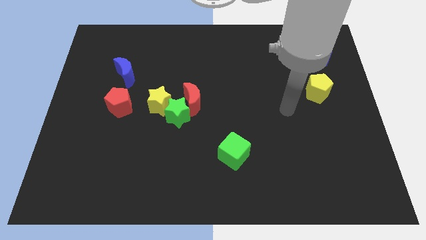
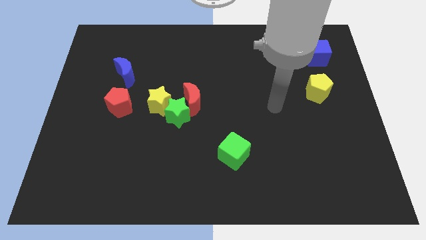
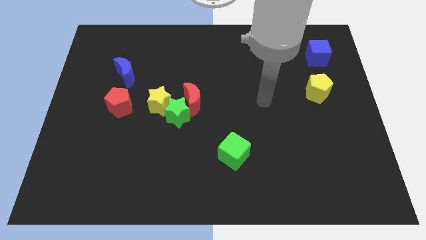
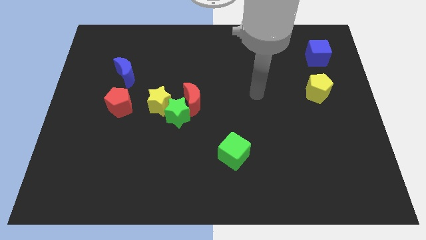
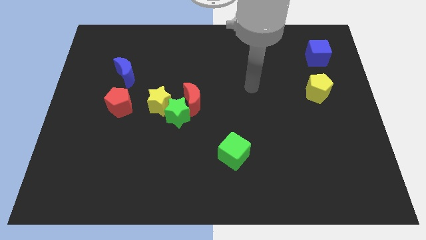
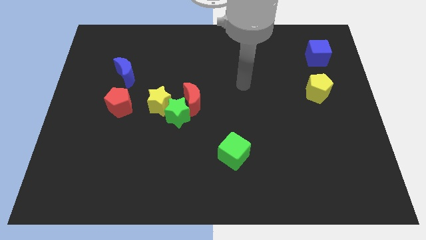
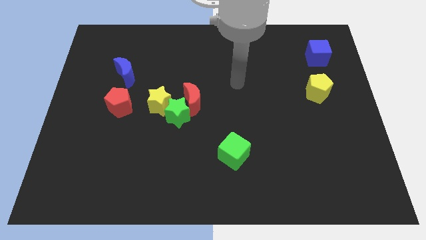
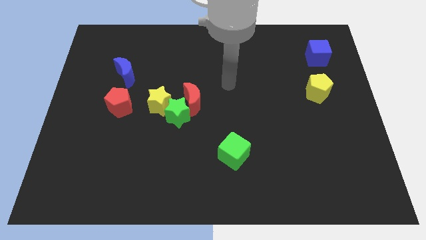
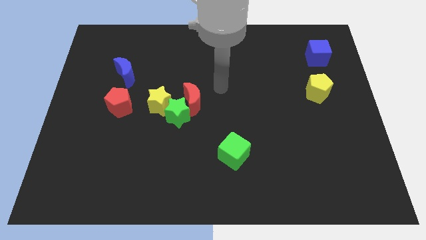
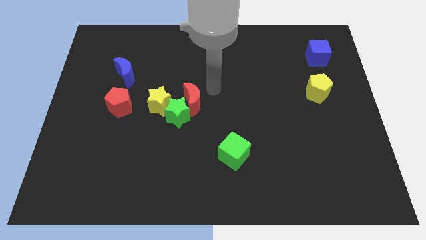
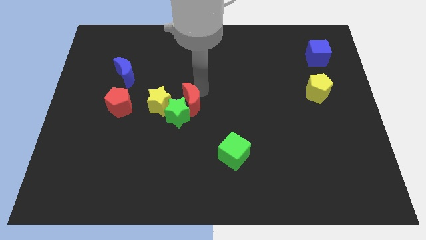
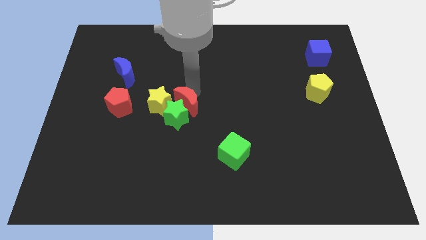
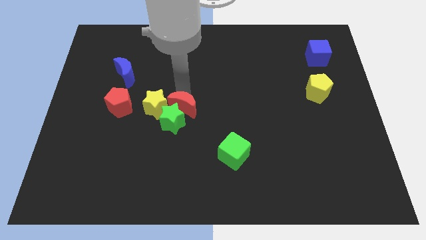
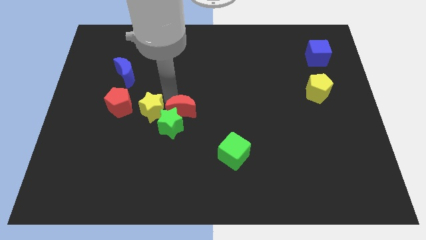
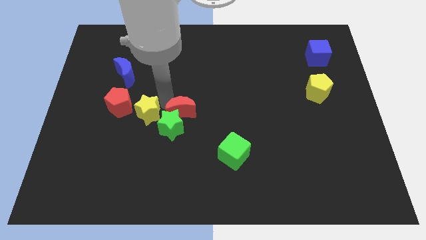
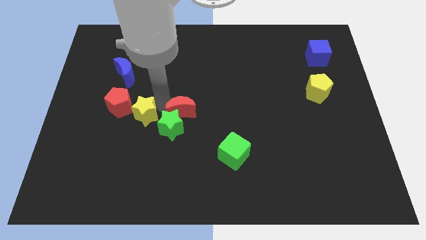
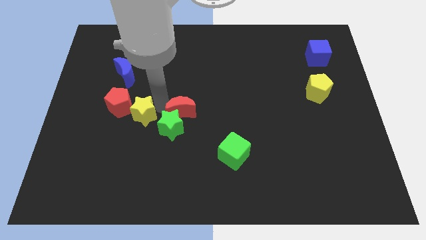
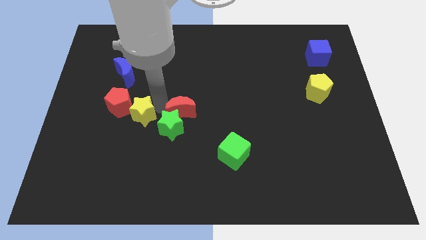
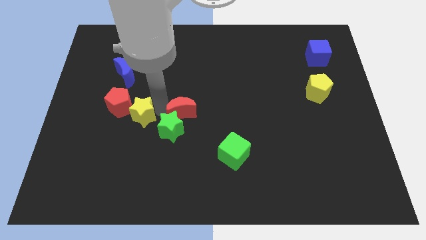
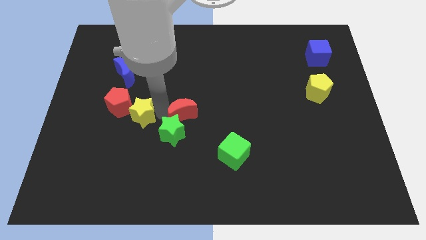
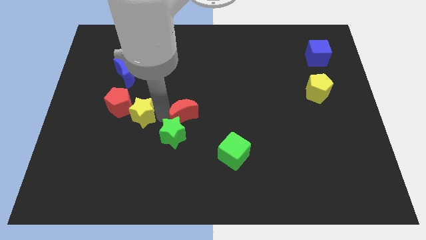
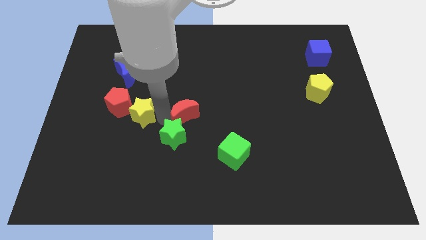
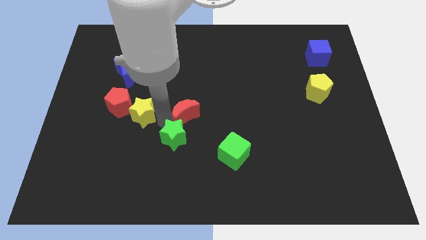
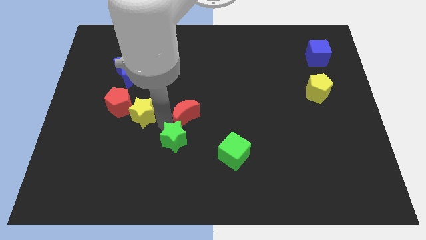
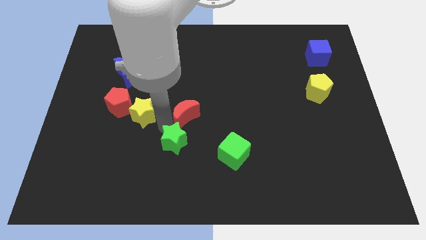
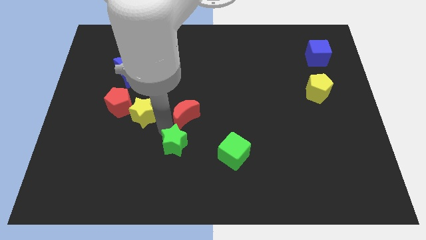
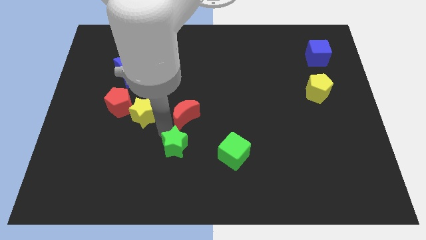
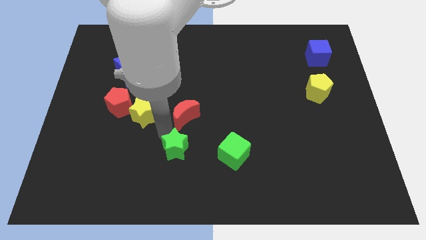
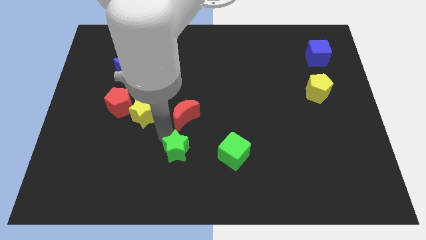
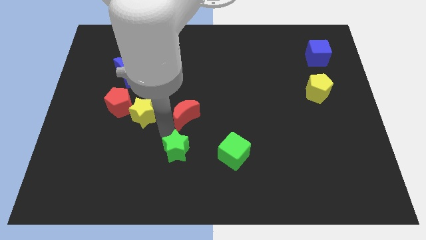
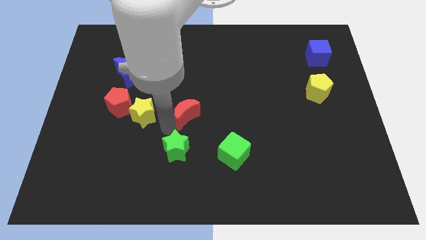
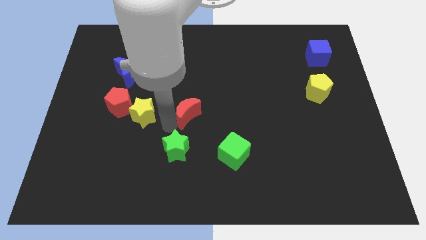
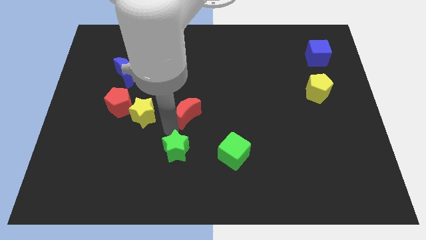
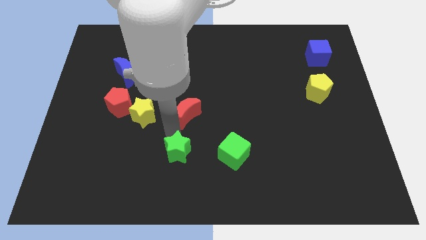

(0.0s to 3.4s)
move the green star away from the red moon and yellow star

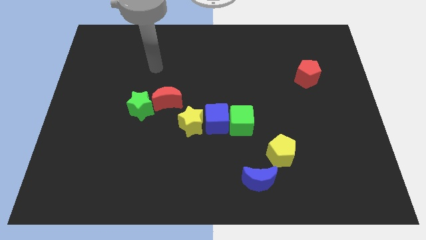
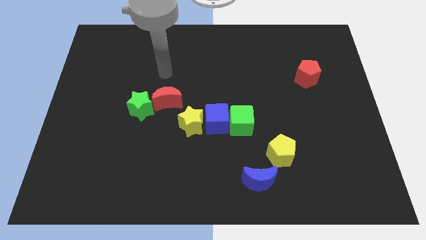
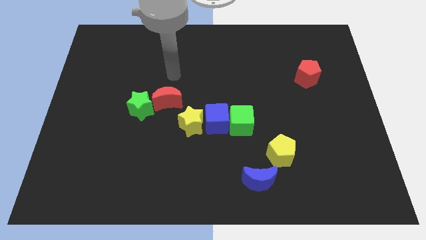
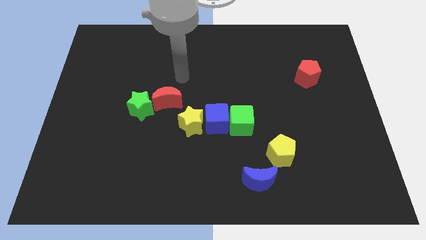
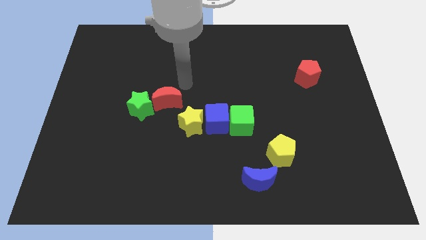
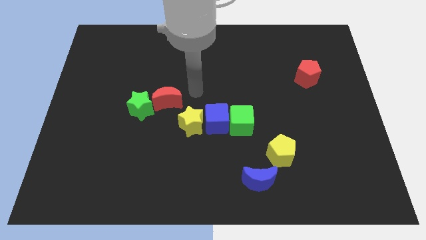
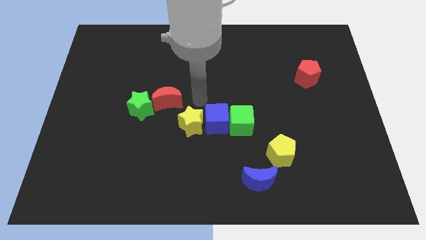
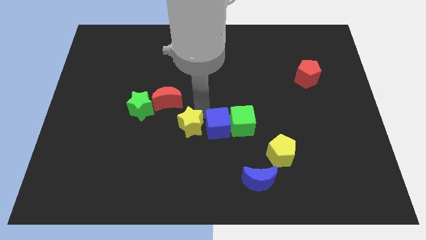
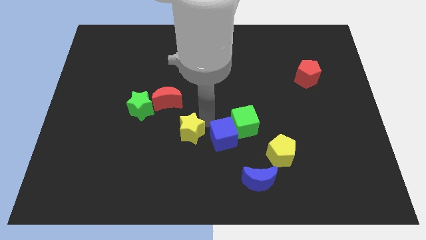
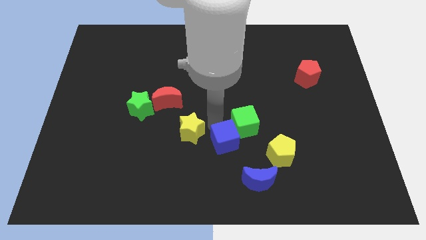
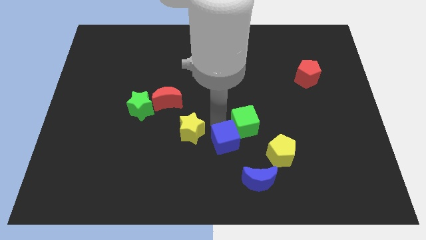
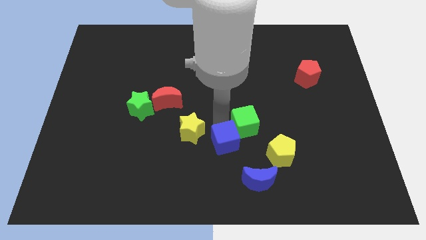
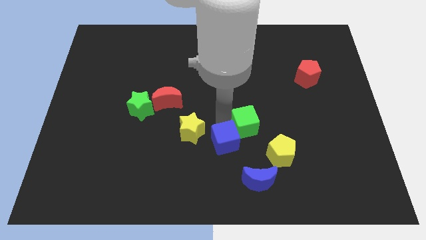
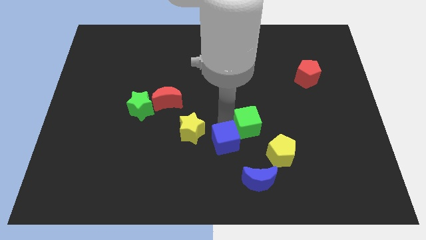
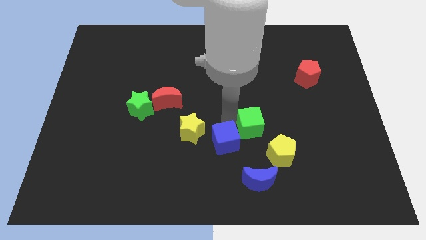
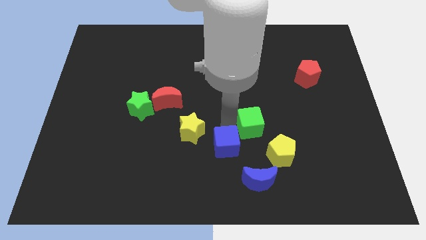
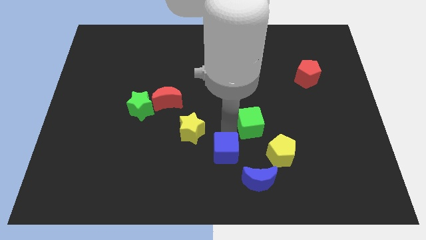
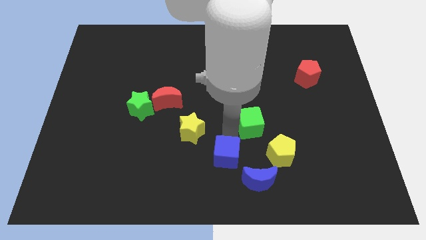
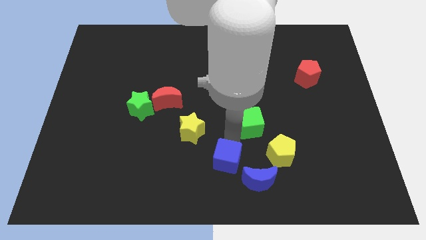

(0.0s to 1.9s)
separate the green cube from the blue cube

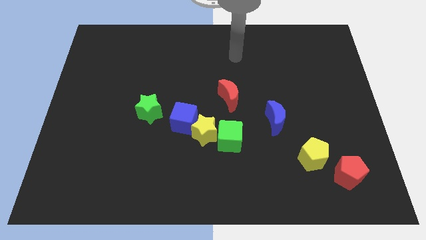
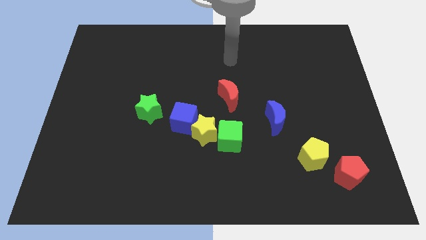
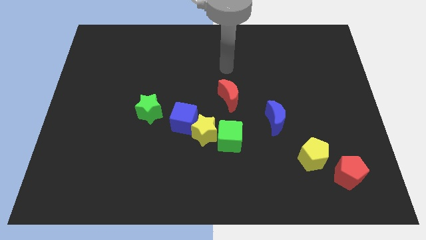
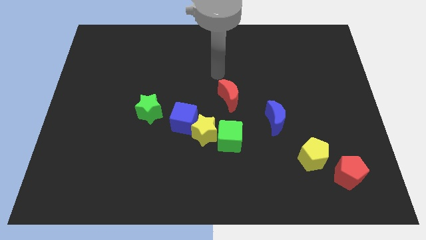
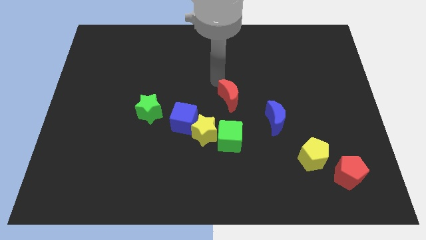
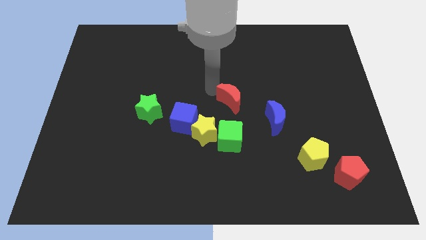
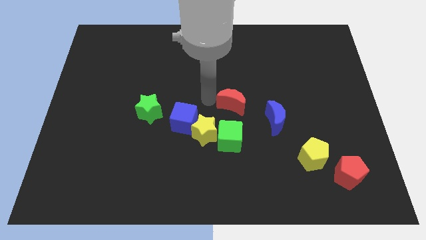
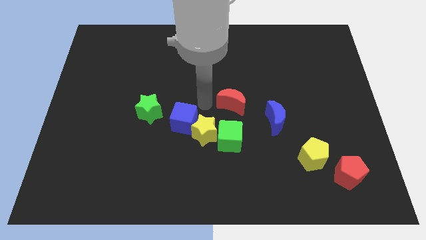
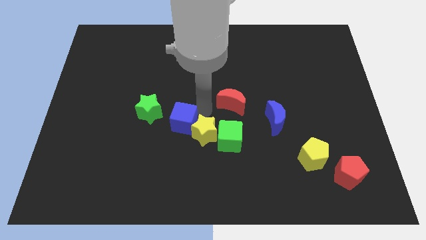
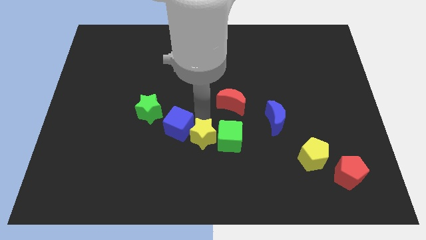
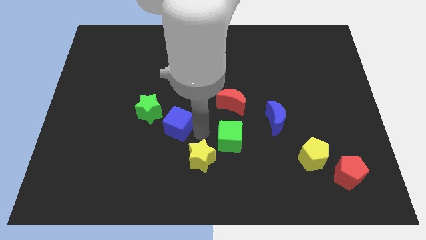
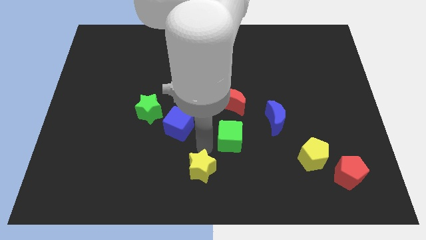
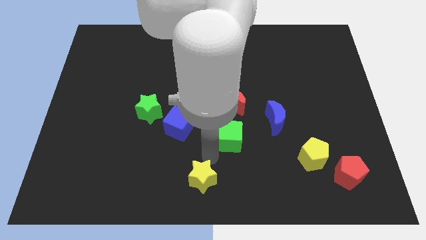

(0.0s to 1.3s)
separate the green cube from the yellow star

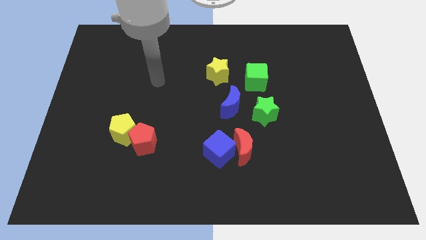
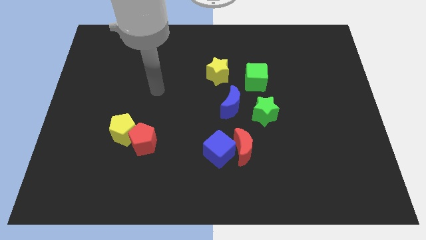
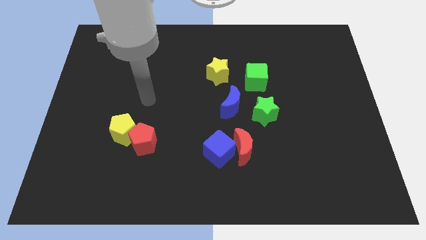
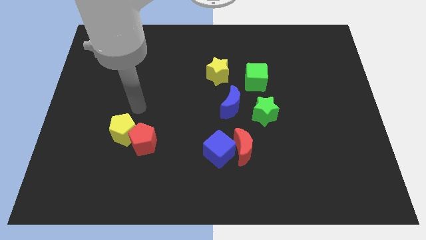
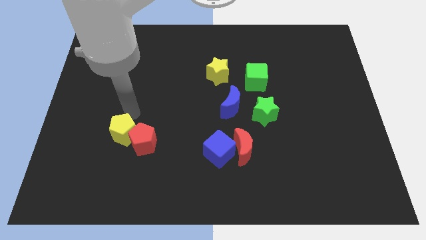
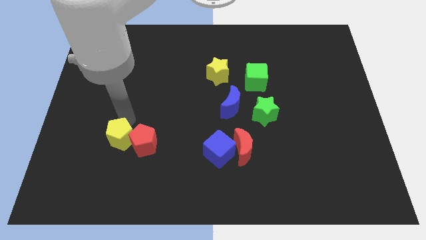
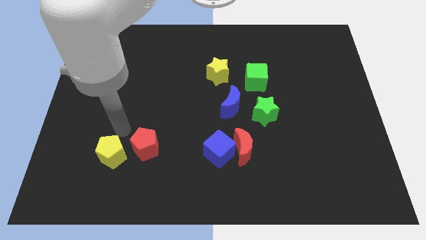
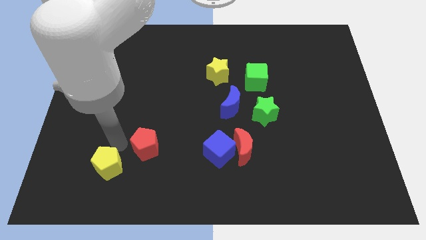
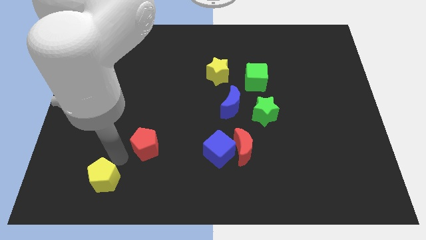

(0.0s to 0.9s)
move the red pentagon away from the yellow pentagon

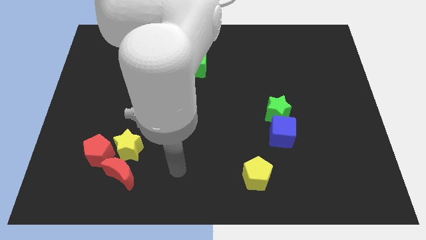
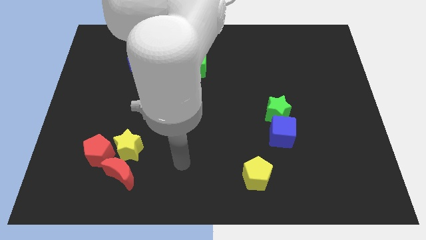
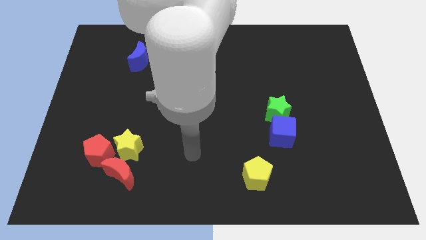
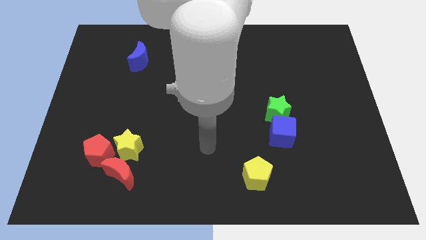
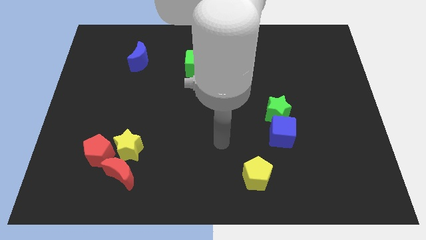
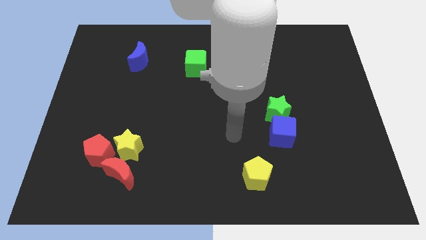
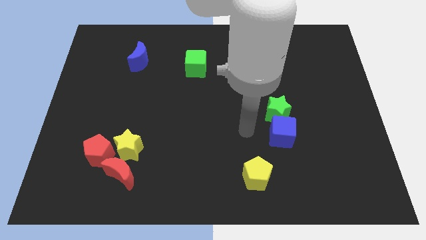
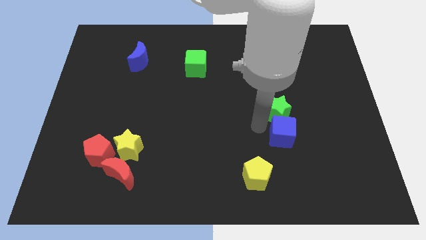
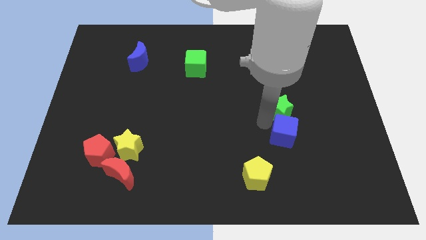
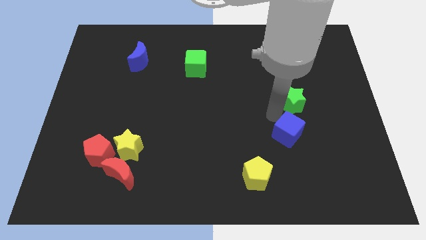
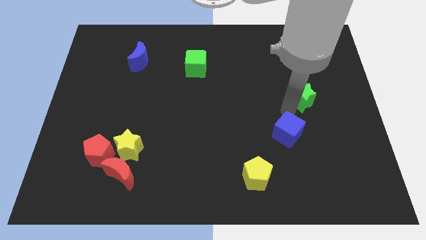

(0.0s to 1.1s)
pull the blue cube apart from the green star

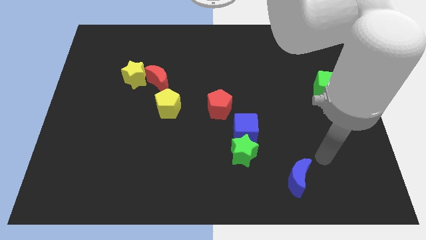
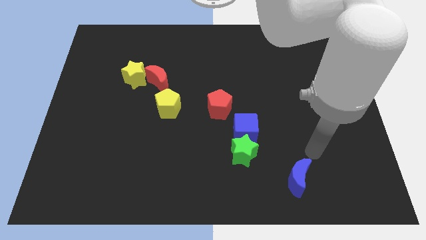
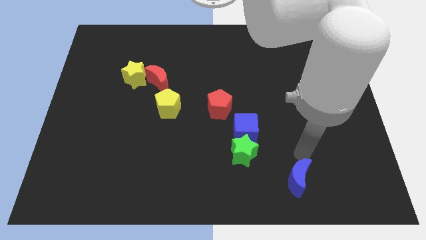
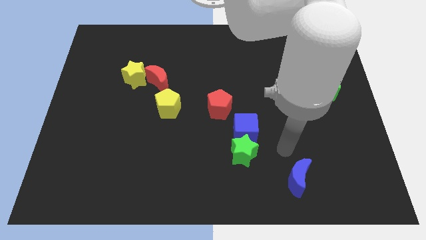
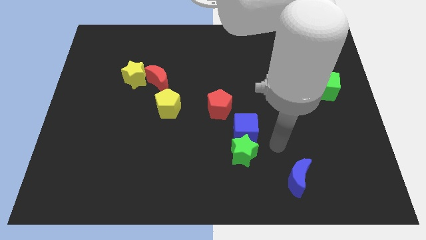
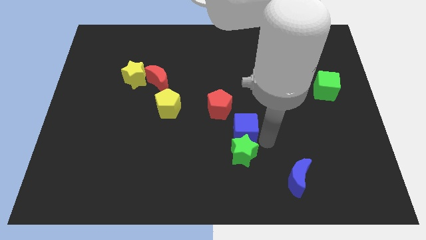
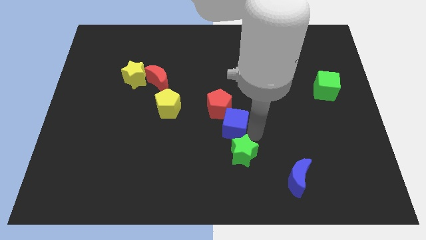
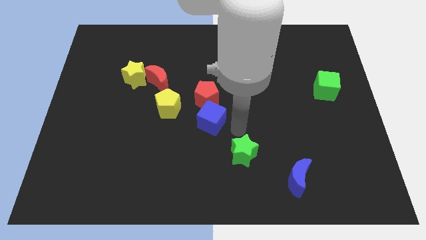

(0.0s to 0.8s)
separate the green star from the blue cube
